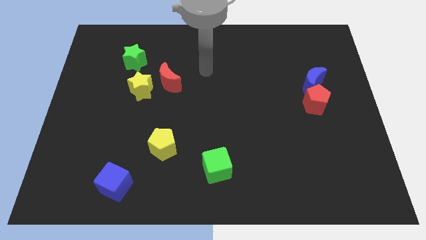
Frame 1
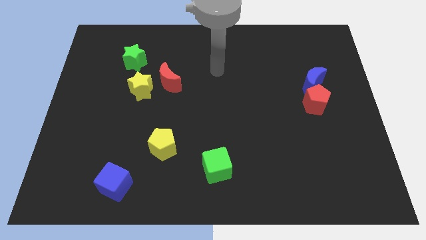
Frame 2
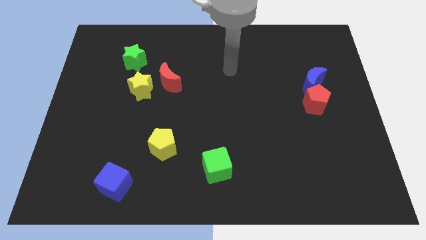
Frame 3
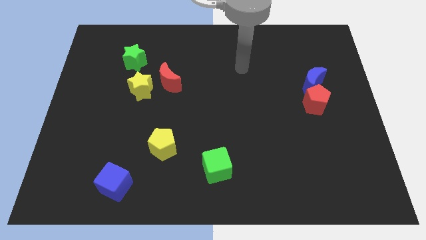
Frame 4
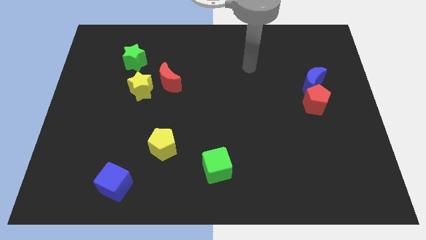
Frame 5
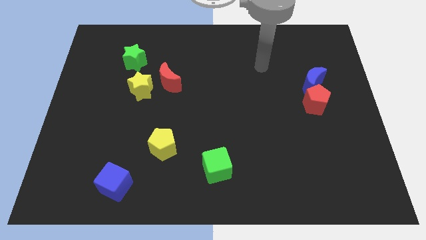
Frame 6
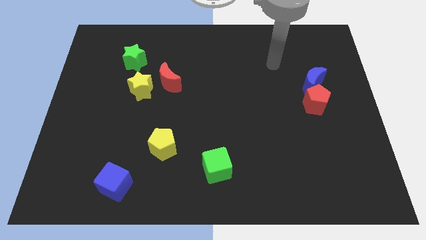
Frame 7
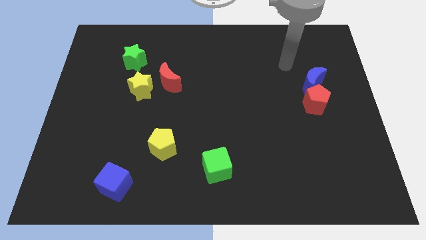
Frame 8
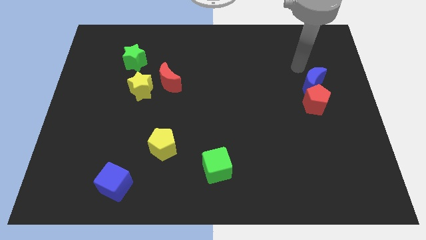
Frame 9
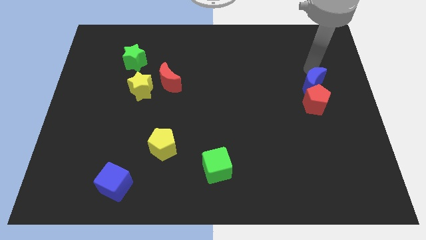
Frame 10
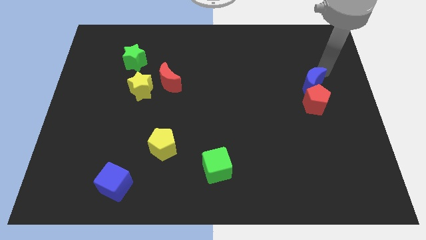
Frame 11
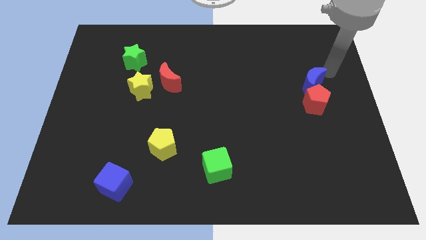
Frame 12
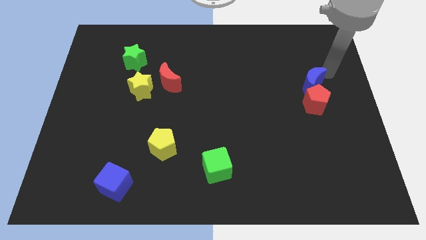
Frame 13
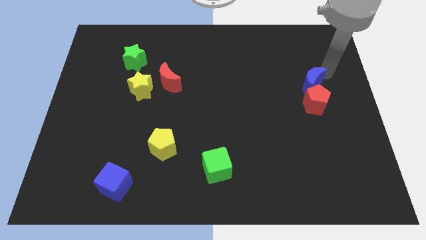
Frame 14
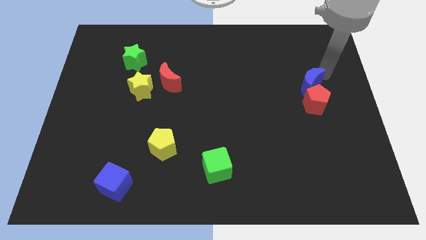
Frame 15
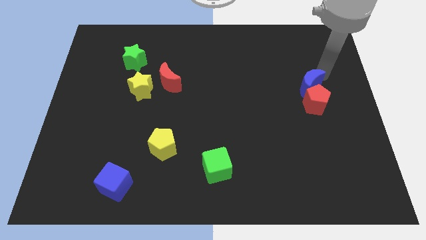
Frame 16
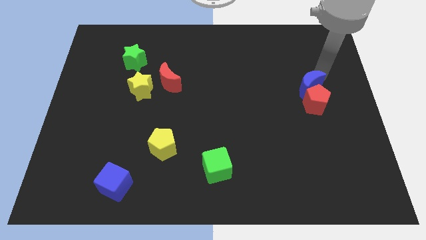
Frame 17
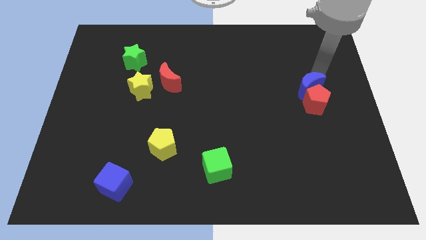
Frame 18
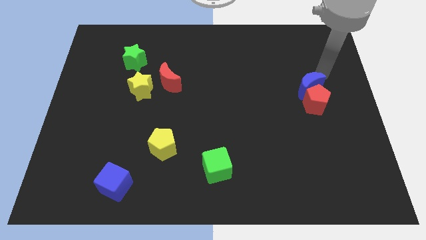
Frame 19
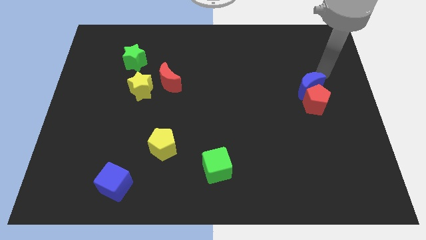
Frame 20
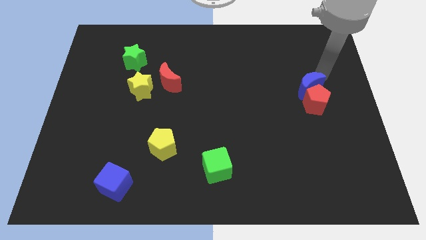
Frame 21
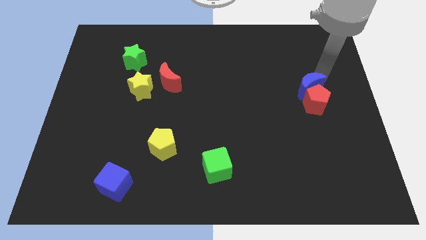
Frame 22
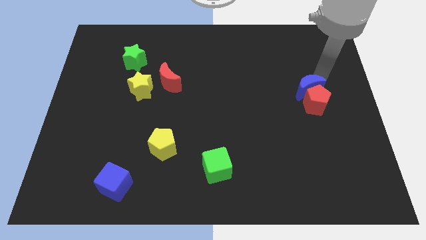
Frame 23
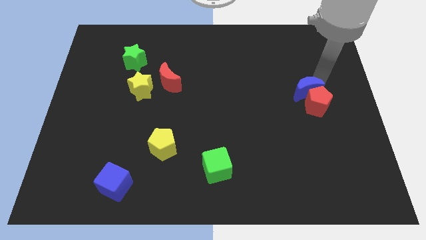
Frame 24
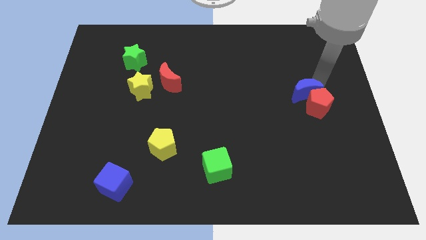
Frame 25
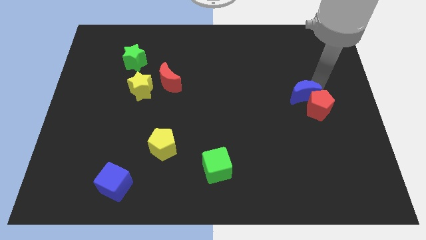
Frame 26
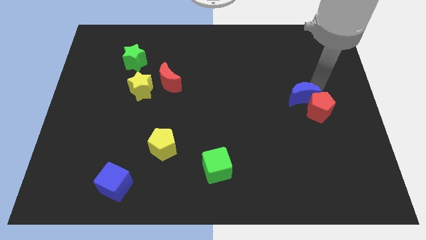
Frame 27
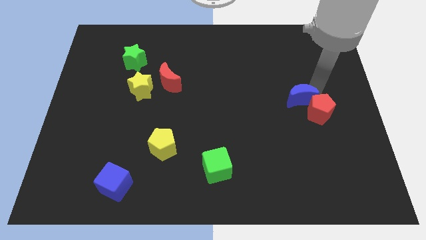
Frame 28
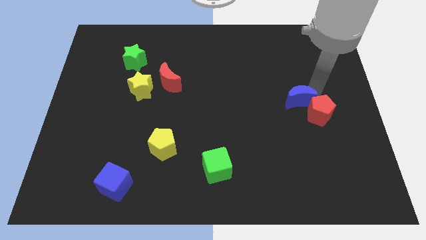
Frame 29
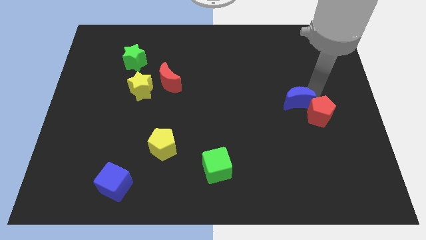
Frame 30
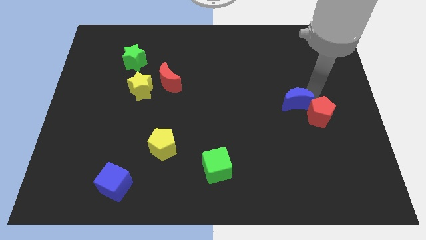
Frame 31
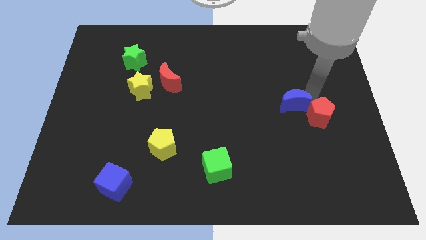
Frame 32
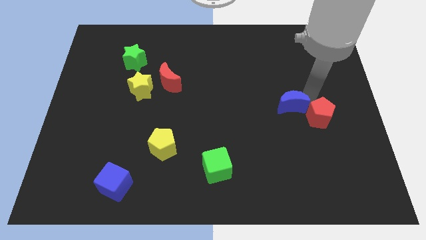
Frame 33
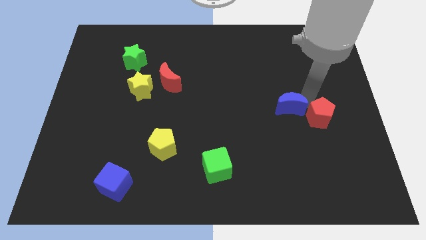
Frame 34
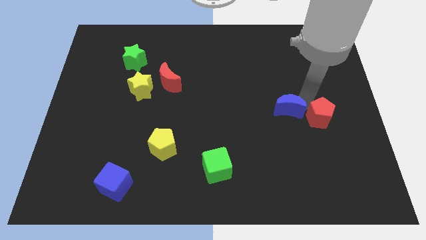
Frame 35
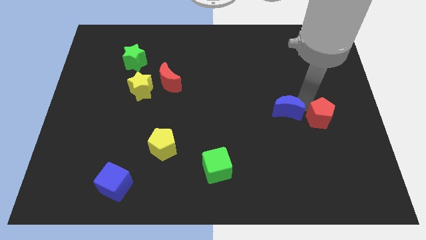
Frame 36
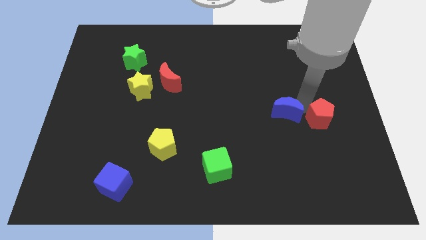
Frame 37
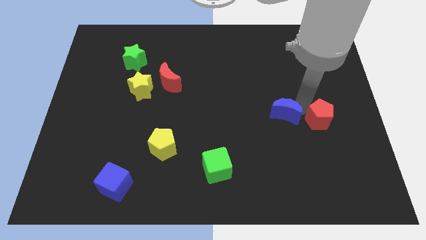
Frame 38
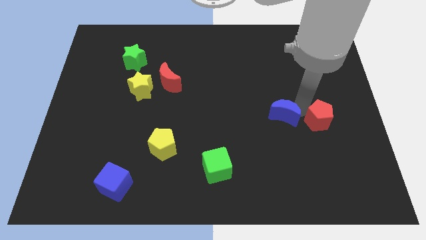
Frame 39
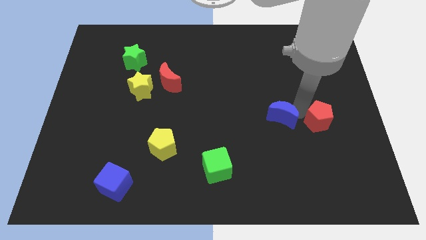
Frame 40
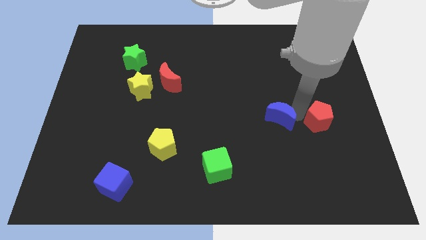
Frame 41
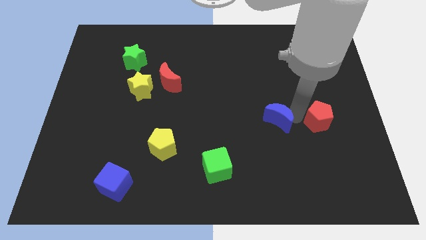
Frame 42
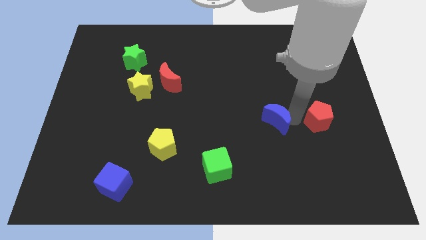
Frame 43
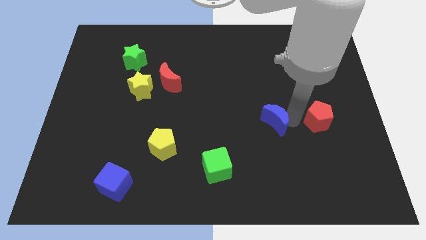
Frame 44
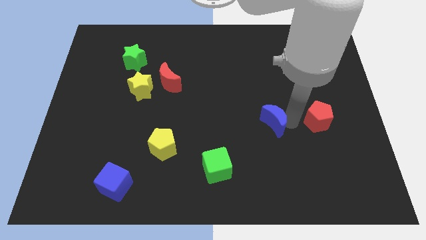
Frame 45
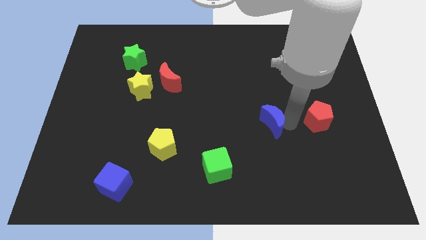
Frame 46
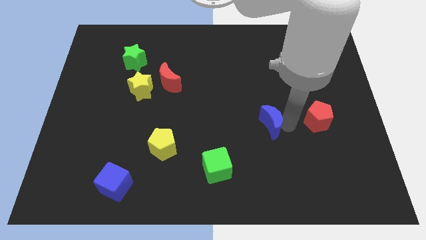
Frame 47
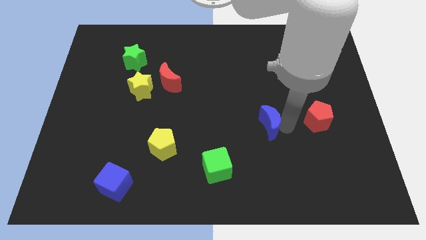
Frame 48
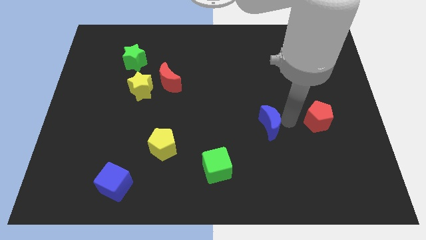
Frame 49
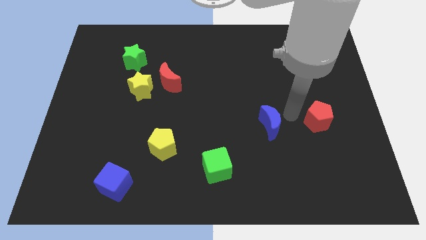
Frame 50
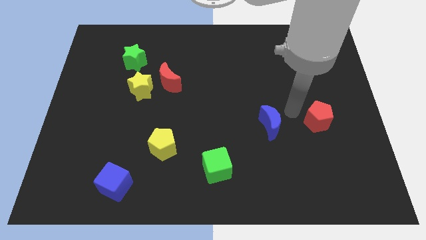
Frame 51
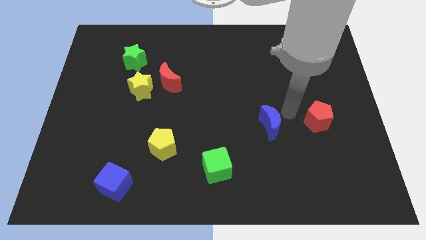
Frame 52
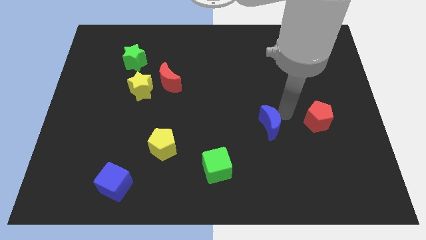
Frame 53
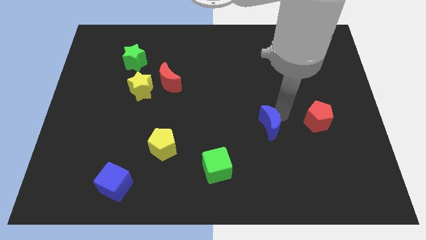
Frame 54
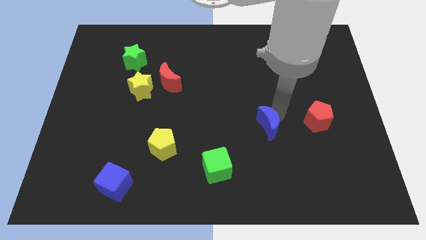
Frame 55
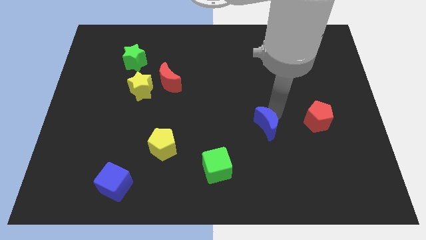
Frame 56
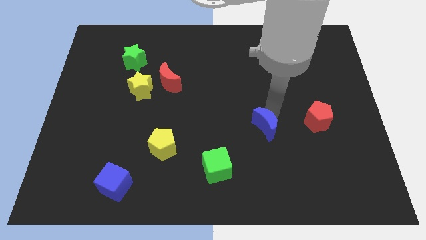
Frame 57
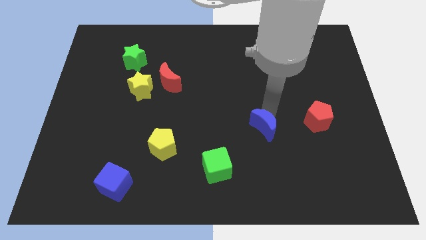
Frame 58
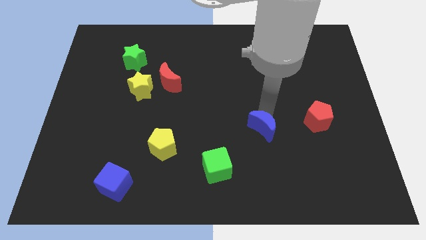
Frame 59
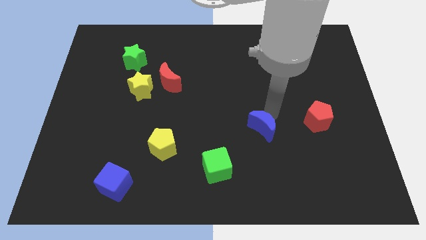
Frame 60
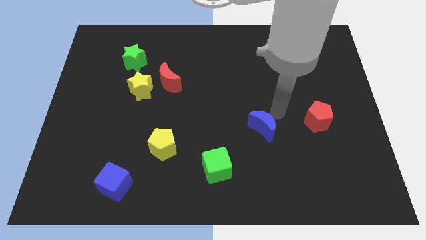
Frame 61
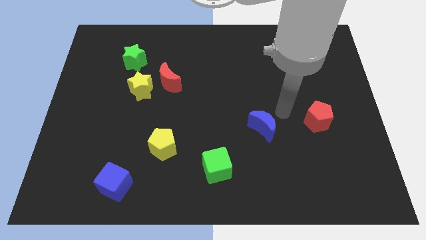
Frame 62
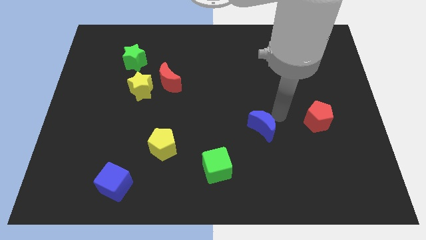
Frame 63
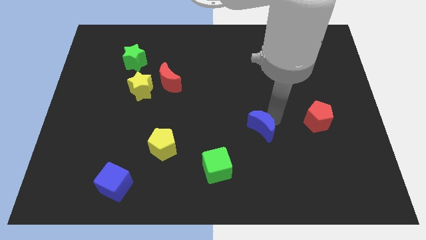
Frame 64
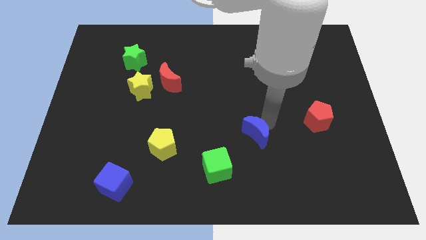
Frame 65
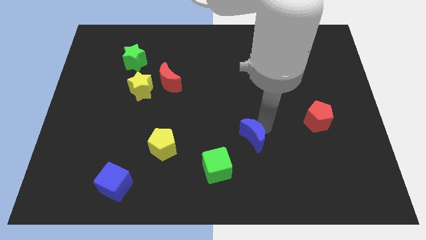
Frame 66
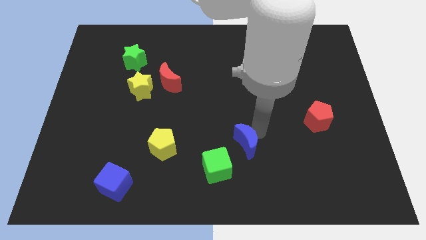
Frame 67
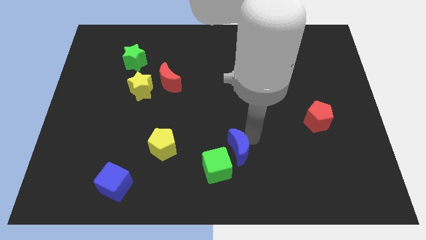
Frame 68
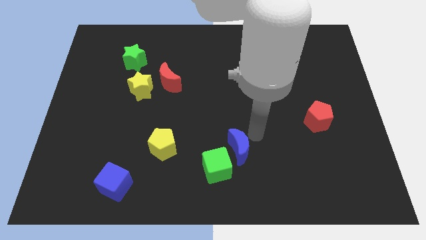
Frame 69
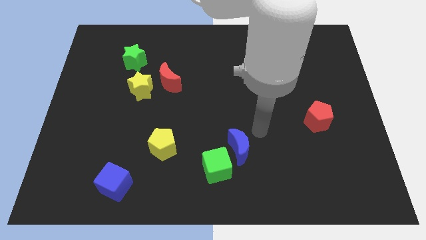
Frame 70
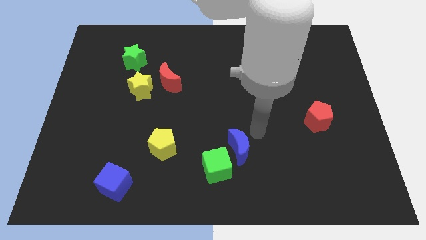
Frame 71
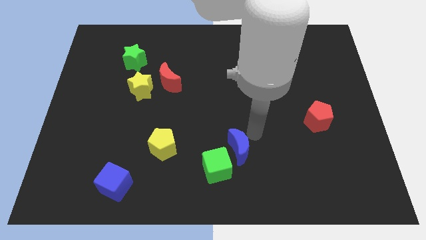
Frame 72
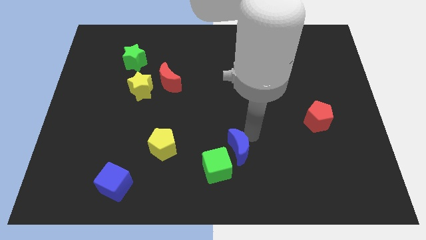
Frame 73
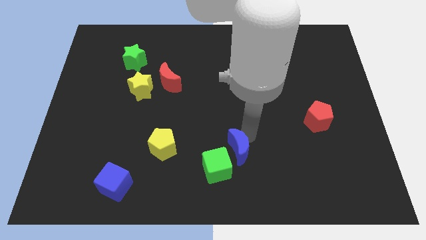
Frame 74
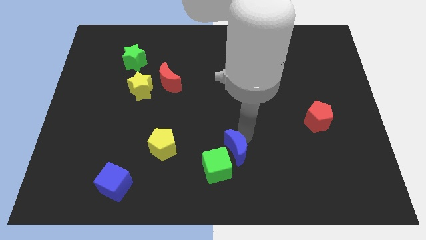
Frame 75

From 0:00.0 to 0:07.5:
put the blue moon towards the green cube
